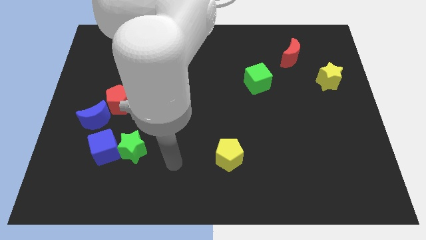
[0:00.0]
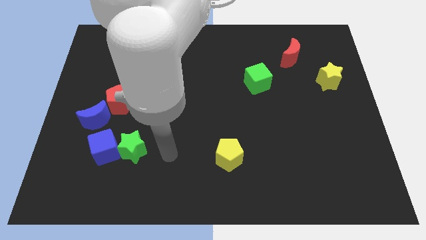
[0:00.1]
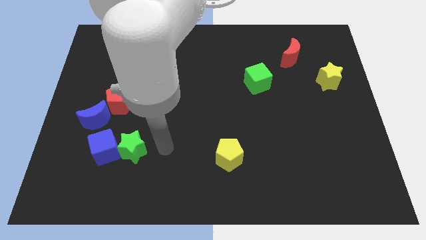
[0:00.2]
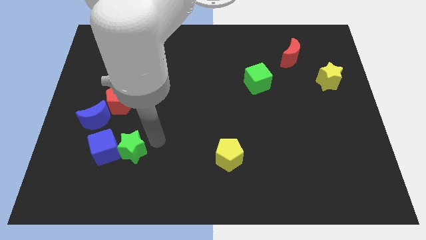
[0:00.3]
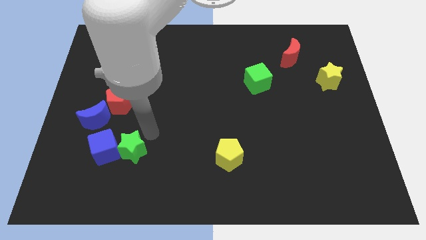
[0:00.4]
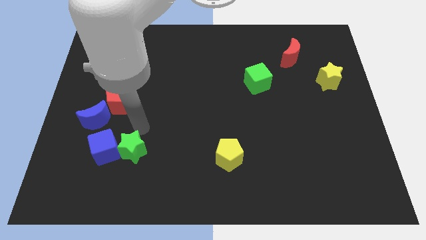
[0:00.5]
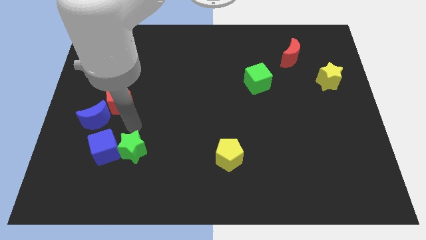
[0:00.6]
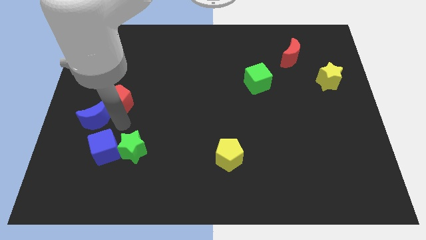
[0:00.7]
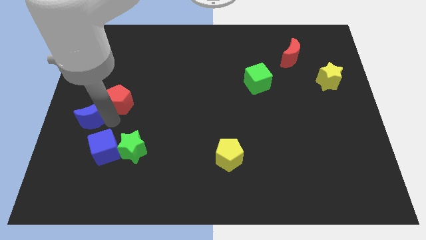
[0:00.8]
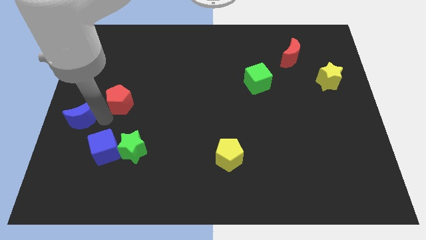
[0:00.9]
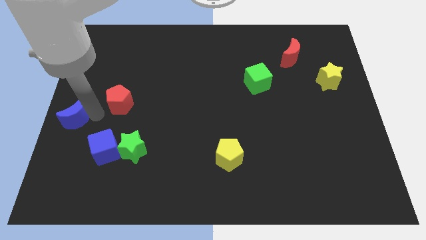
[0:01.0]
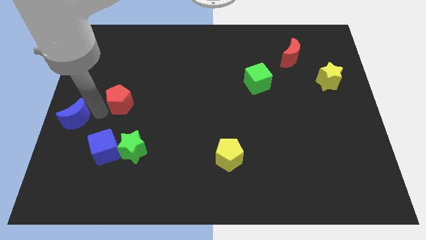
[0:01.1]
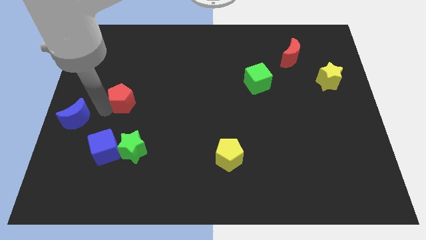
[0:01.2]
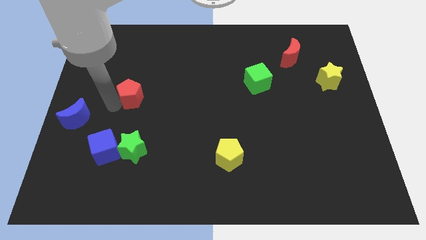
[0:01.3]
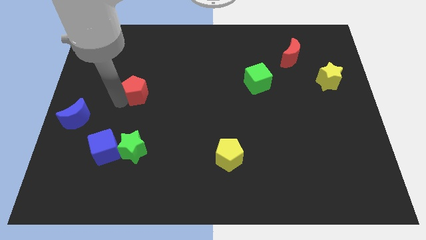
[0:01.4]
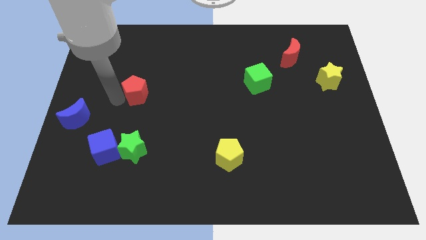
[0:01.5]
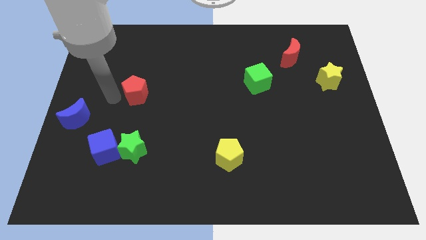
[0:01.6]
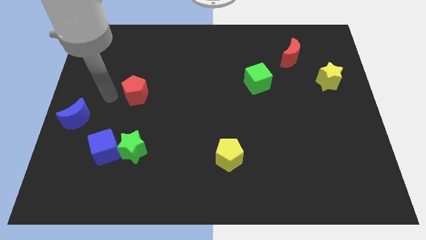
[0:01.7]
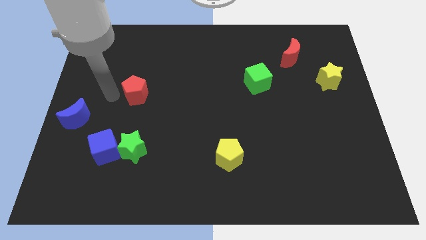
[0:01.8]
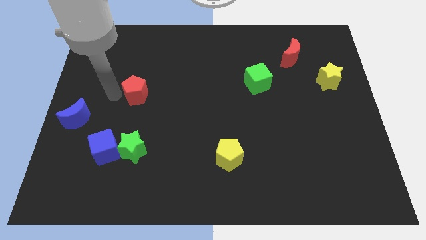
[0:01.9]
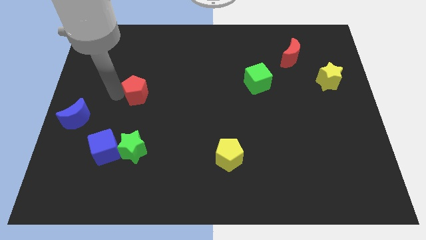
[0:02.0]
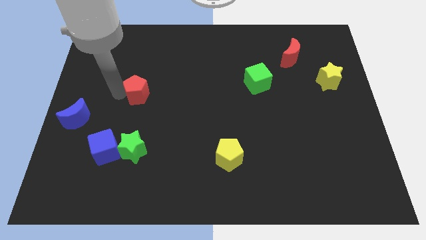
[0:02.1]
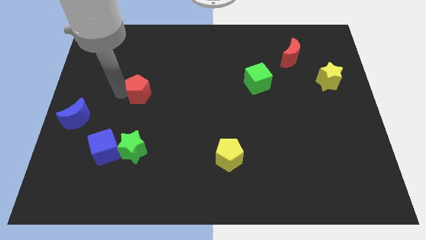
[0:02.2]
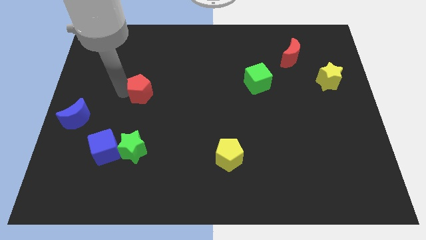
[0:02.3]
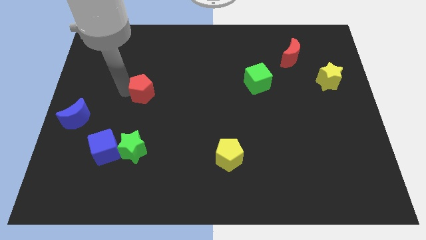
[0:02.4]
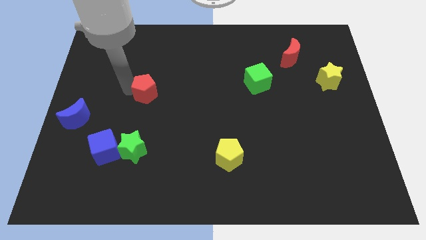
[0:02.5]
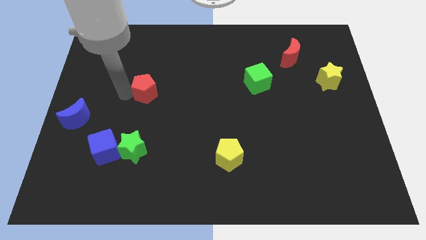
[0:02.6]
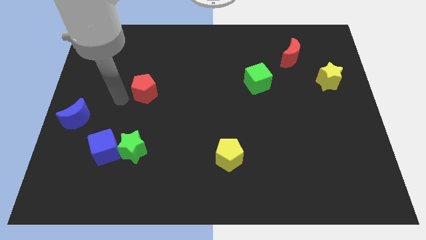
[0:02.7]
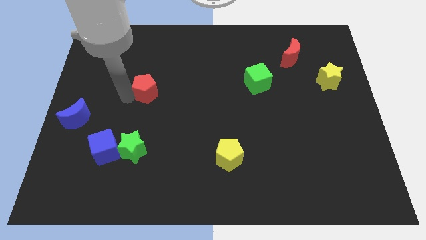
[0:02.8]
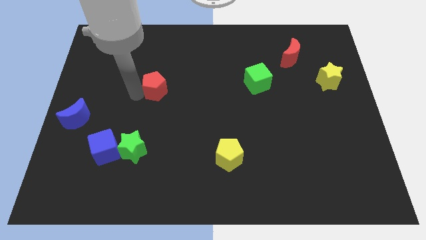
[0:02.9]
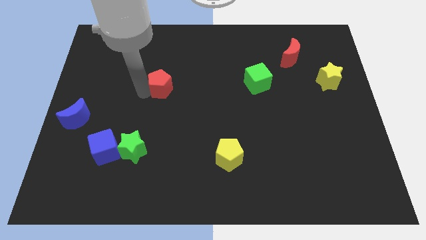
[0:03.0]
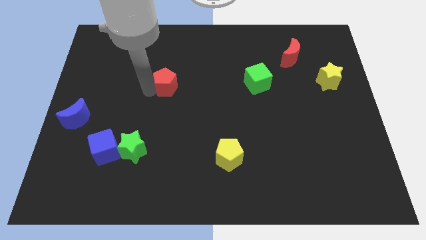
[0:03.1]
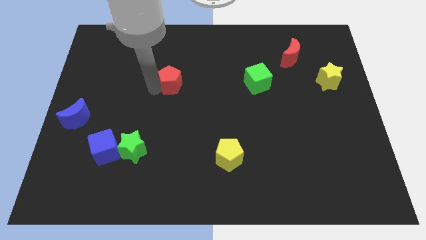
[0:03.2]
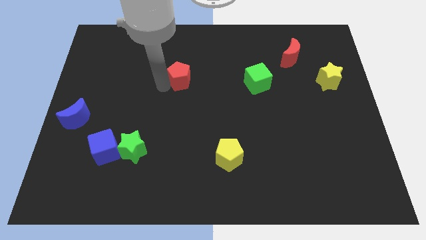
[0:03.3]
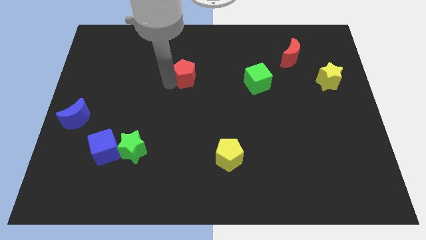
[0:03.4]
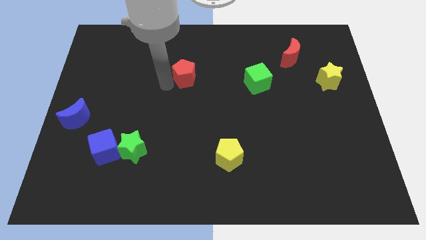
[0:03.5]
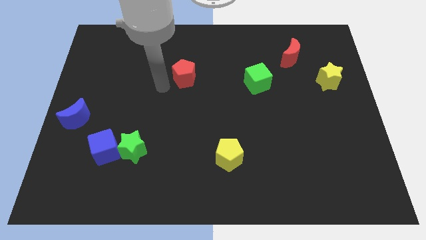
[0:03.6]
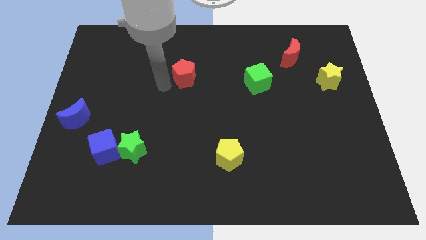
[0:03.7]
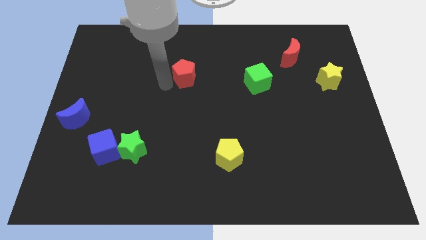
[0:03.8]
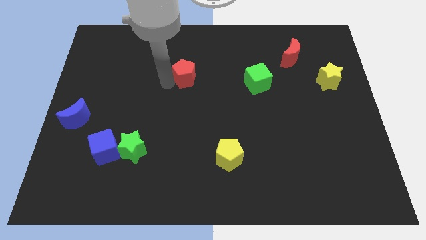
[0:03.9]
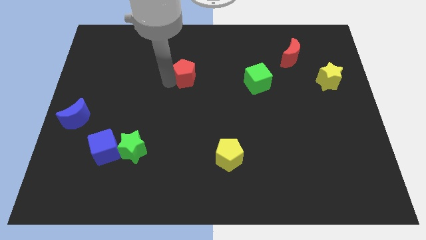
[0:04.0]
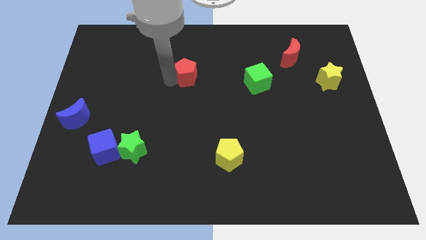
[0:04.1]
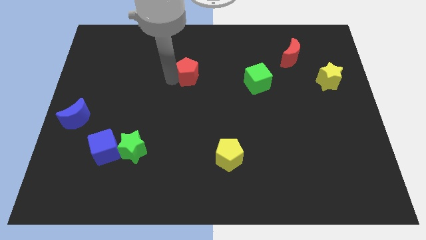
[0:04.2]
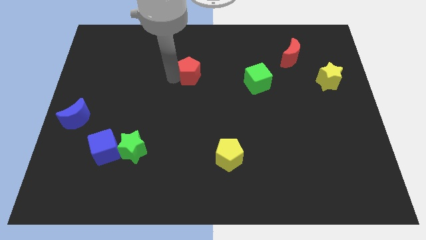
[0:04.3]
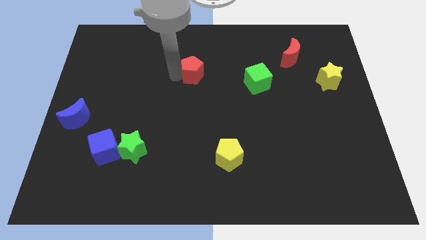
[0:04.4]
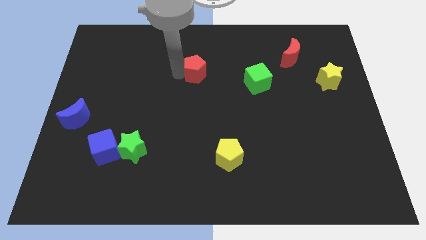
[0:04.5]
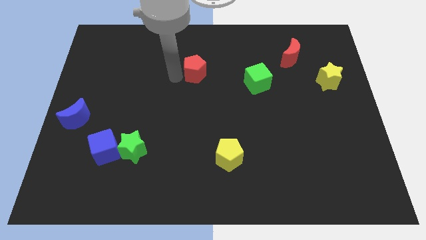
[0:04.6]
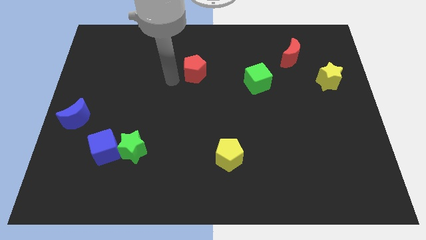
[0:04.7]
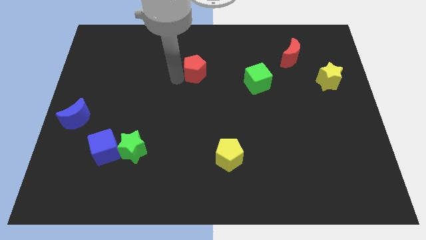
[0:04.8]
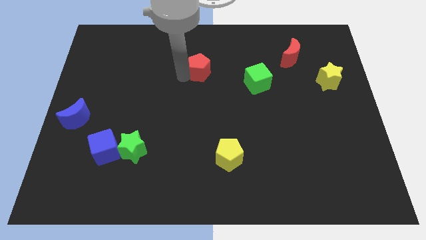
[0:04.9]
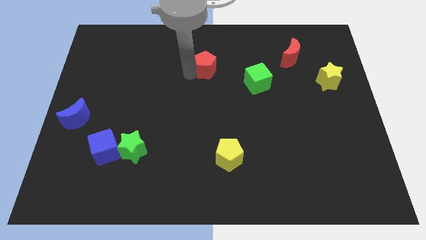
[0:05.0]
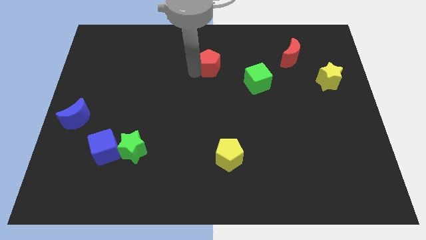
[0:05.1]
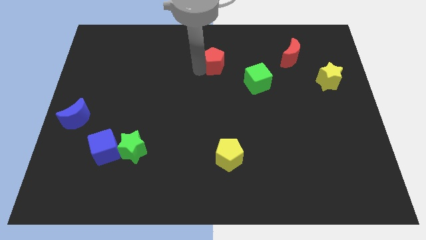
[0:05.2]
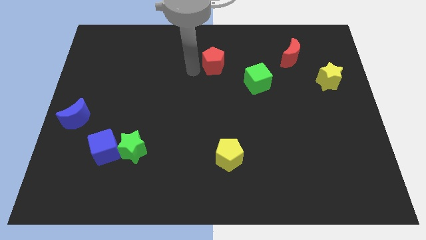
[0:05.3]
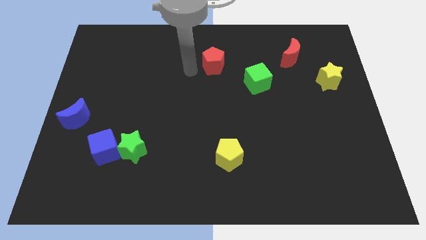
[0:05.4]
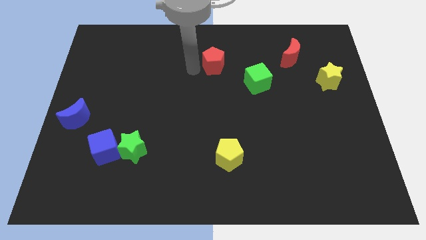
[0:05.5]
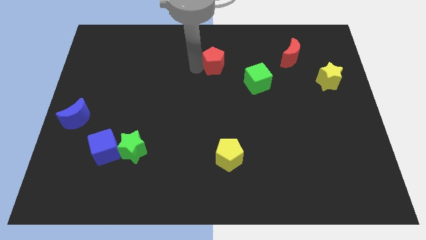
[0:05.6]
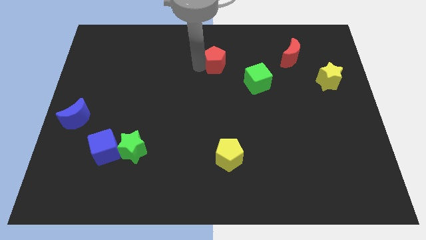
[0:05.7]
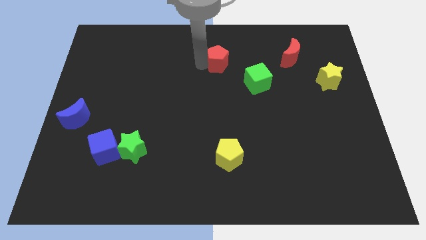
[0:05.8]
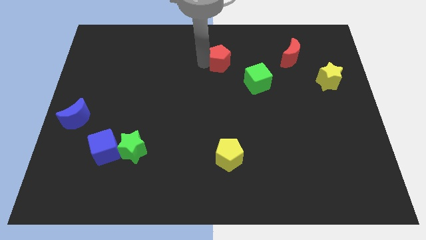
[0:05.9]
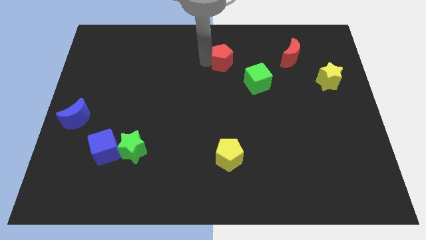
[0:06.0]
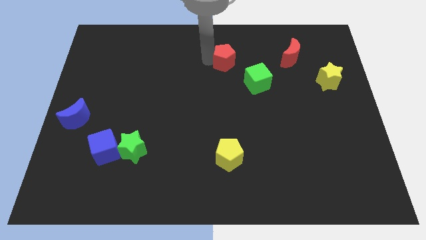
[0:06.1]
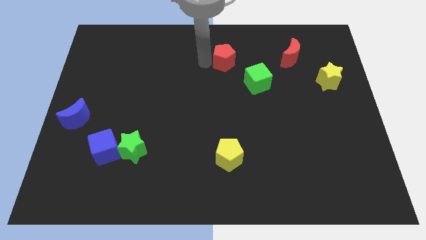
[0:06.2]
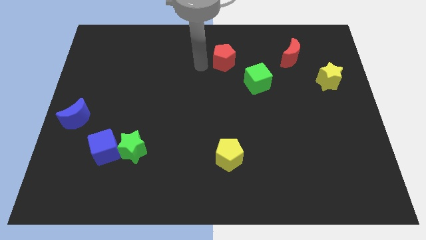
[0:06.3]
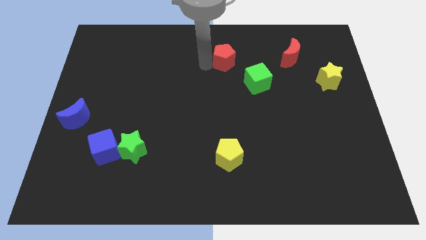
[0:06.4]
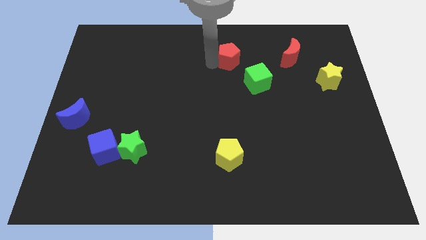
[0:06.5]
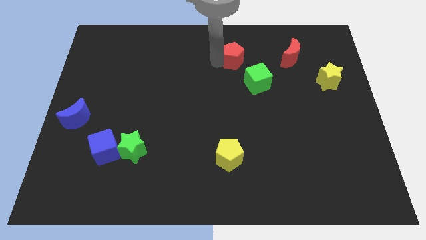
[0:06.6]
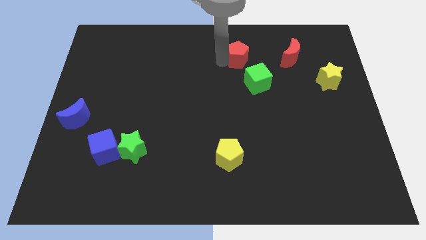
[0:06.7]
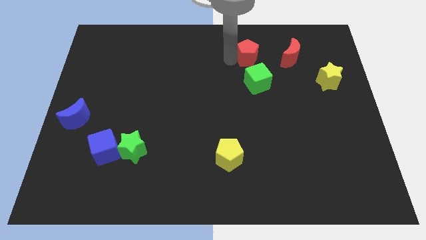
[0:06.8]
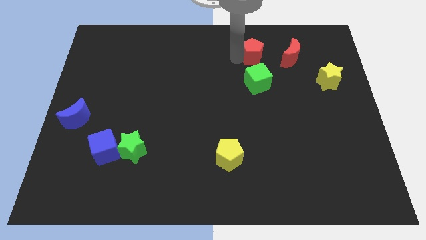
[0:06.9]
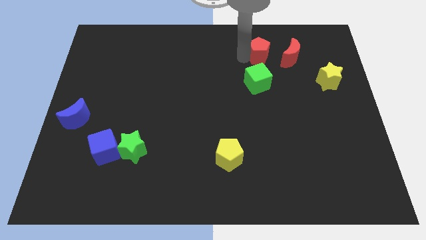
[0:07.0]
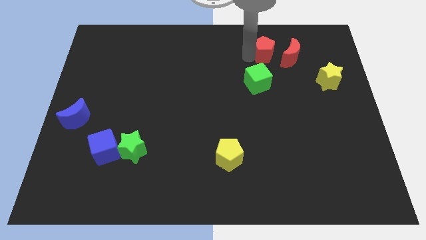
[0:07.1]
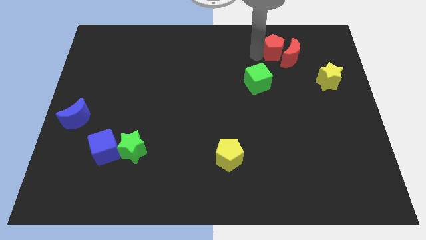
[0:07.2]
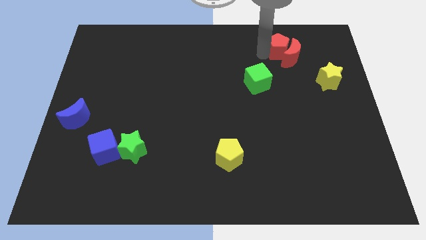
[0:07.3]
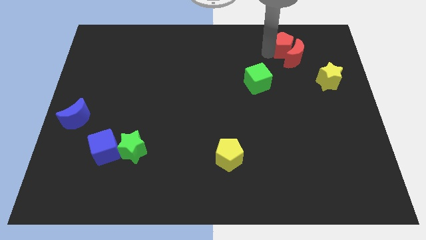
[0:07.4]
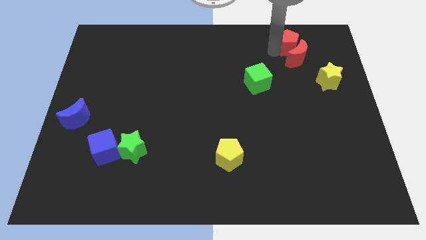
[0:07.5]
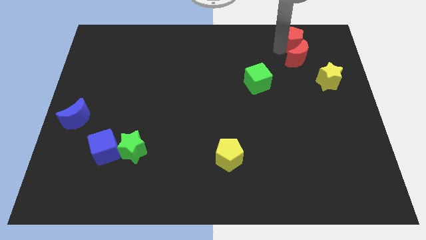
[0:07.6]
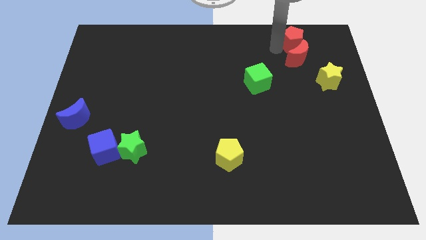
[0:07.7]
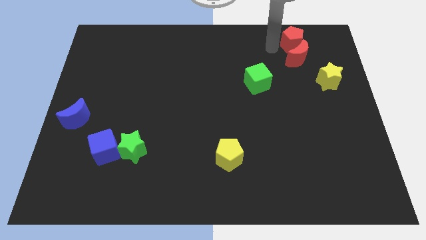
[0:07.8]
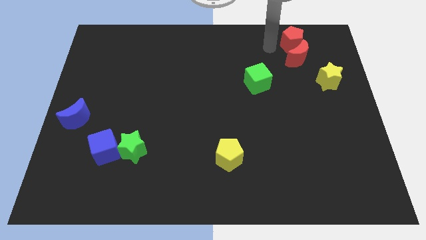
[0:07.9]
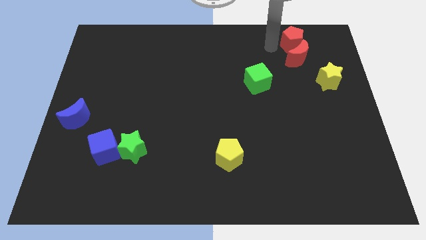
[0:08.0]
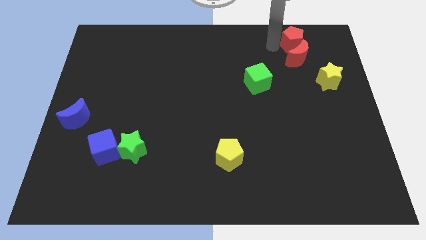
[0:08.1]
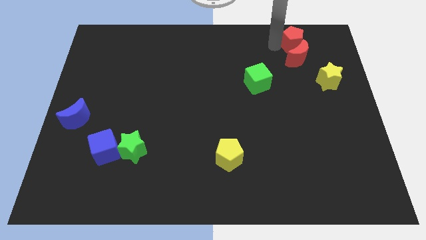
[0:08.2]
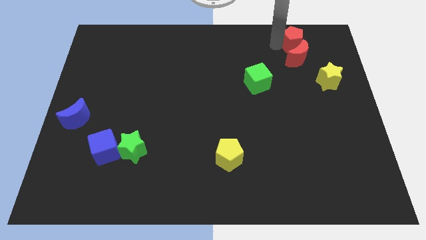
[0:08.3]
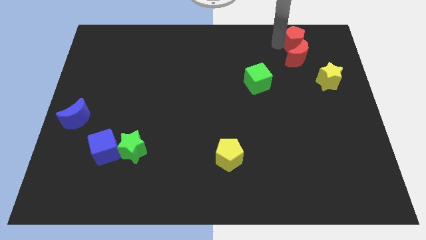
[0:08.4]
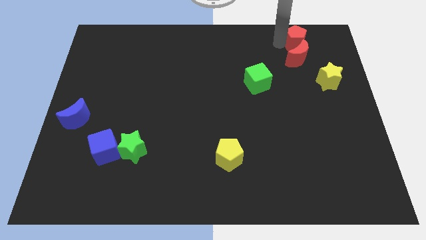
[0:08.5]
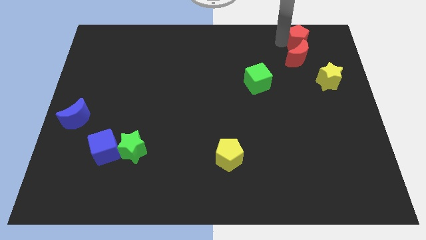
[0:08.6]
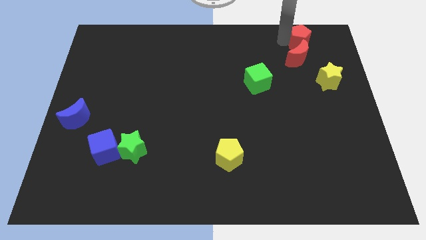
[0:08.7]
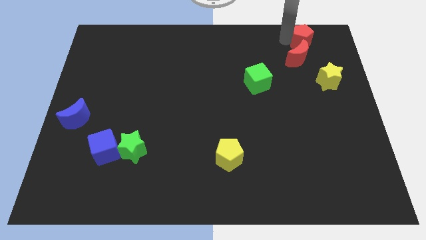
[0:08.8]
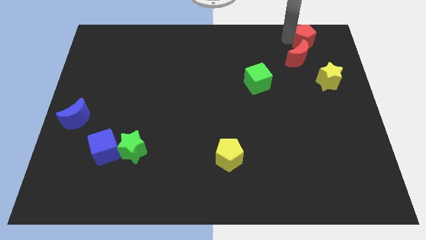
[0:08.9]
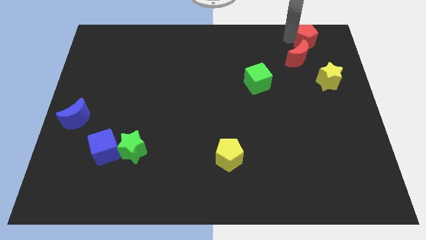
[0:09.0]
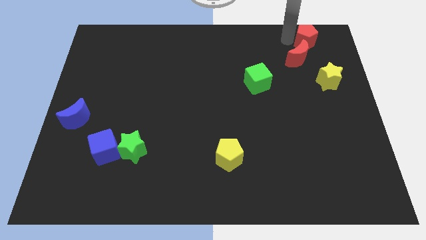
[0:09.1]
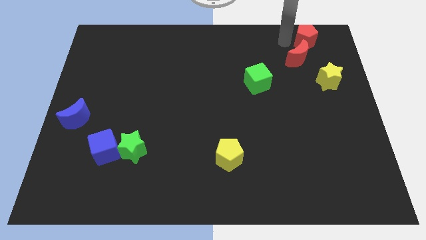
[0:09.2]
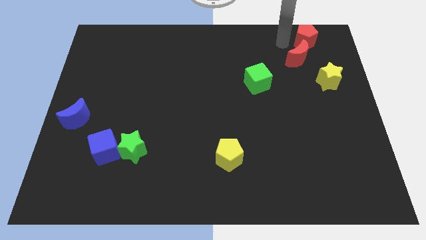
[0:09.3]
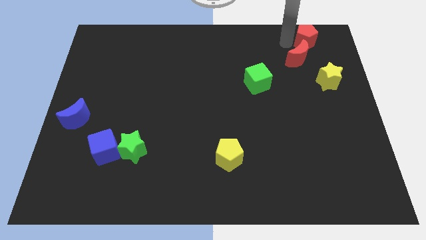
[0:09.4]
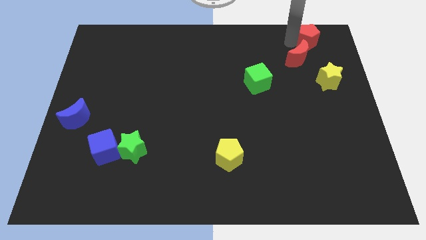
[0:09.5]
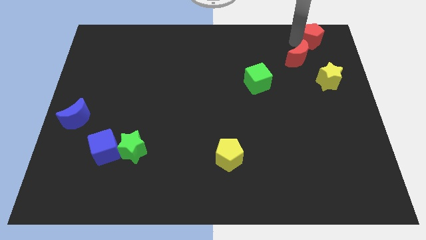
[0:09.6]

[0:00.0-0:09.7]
slide the red pentagon to the top right of the board
